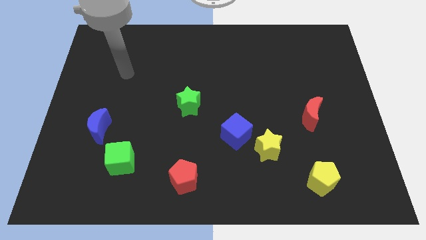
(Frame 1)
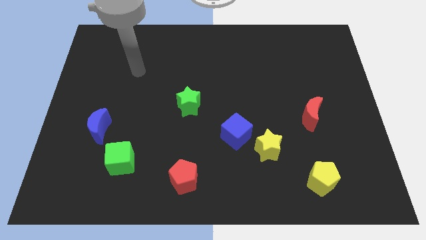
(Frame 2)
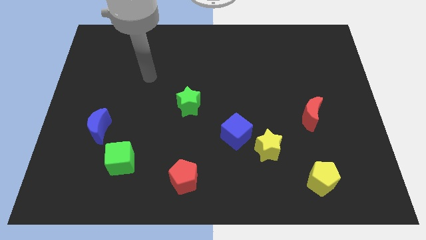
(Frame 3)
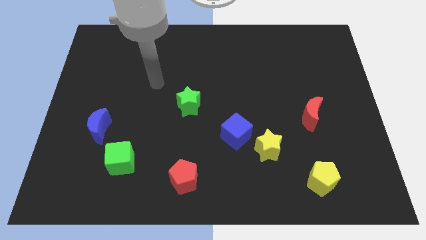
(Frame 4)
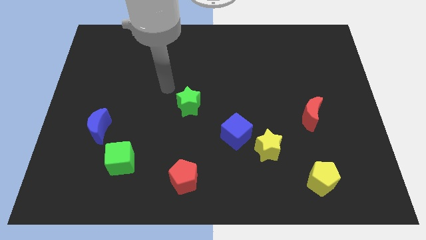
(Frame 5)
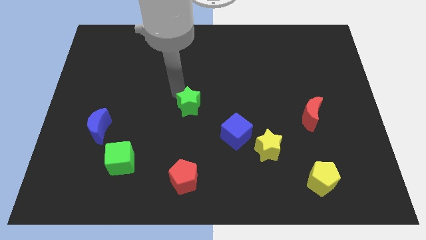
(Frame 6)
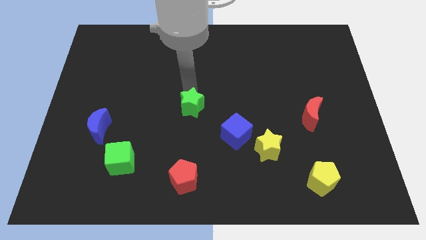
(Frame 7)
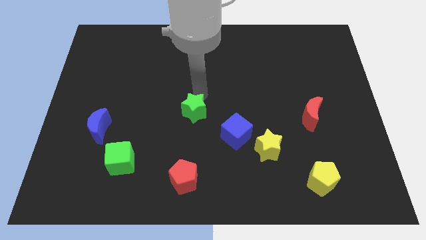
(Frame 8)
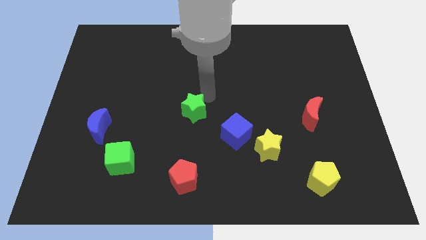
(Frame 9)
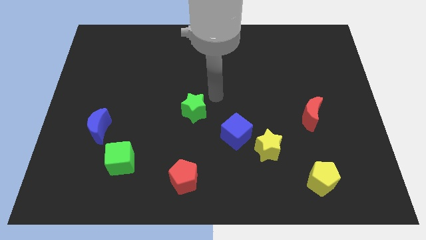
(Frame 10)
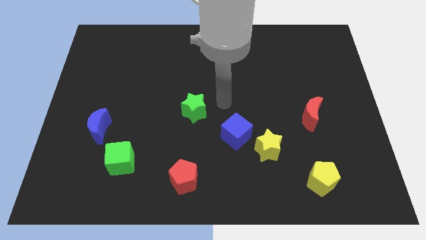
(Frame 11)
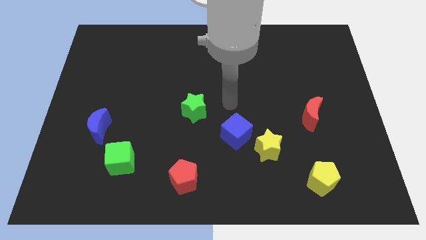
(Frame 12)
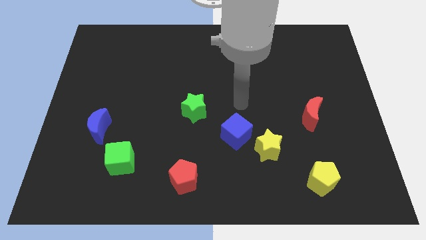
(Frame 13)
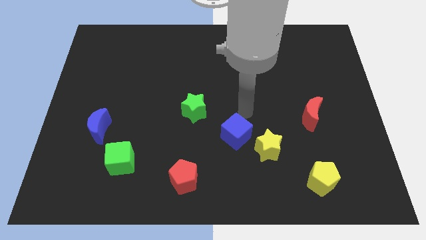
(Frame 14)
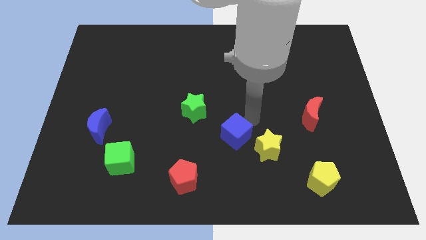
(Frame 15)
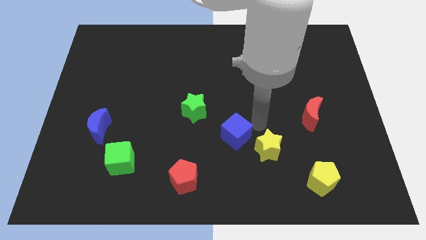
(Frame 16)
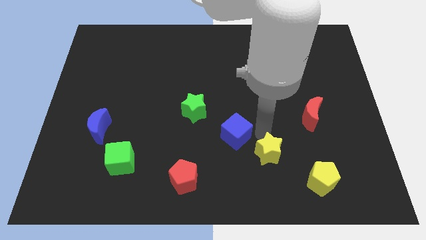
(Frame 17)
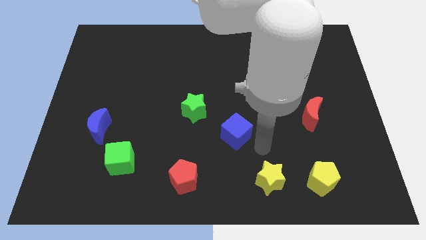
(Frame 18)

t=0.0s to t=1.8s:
pull the blue cube apart from the yellow star

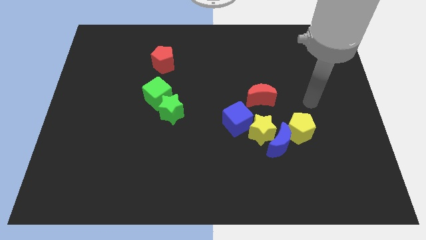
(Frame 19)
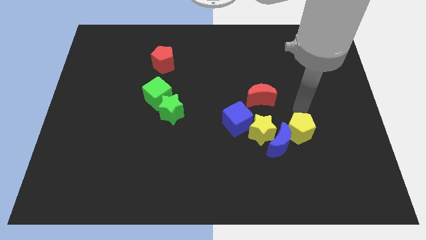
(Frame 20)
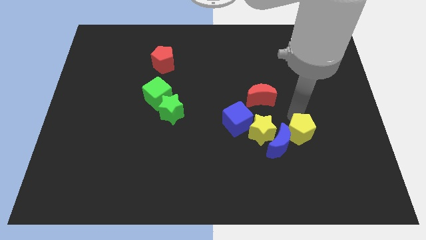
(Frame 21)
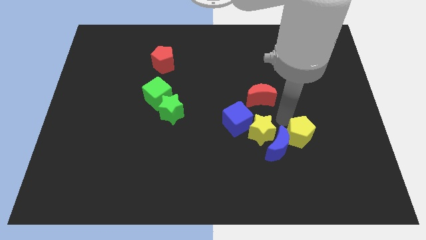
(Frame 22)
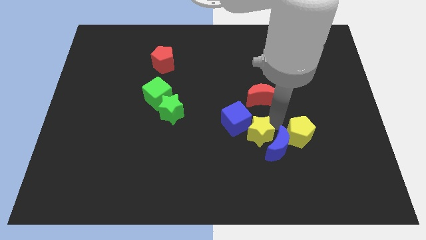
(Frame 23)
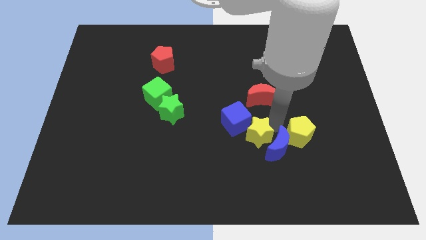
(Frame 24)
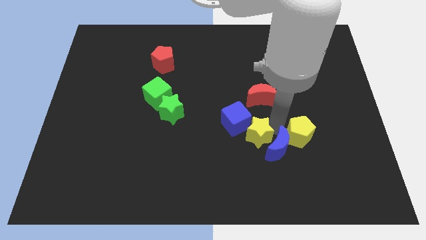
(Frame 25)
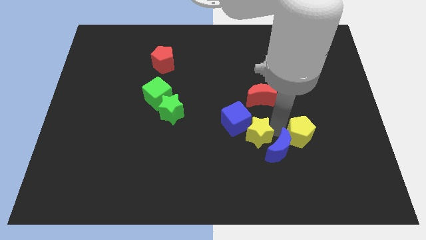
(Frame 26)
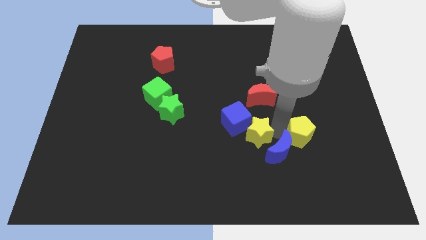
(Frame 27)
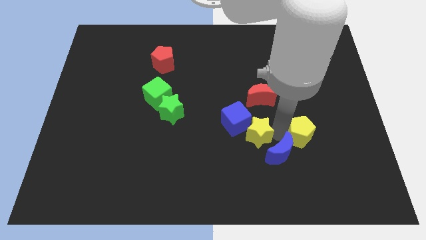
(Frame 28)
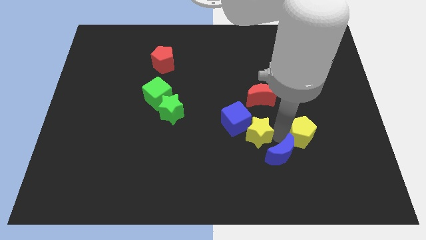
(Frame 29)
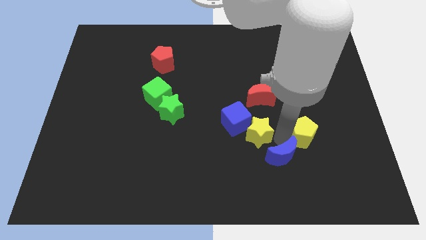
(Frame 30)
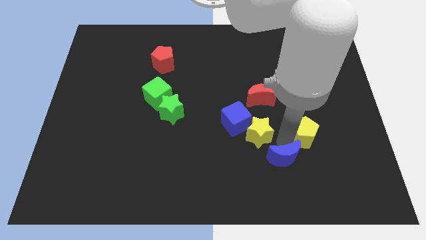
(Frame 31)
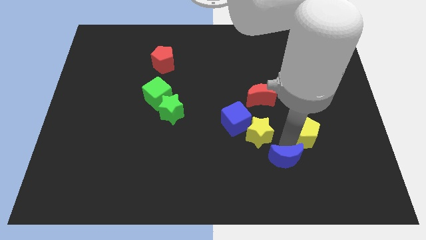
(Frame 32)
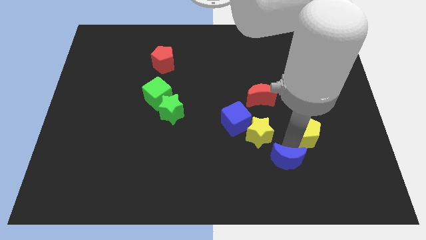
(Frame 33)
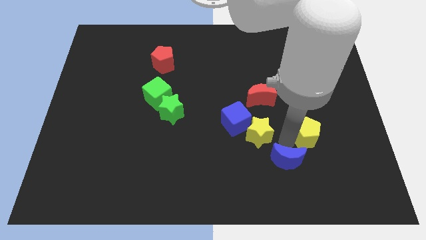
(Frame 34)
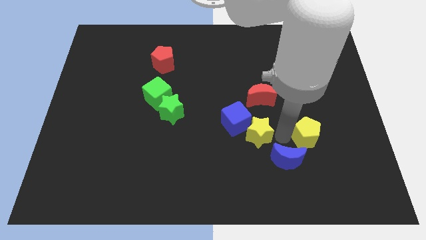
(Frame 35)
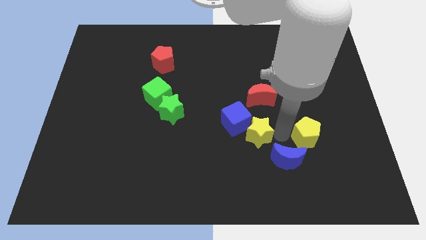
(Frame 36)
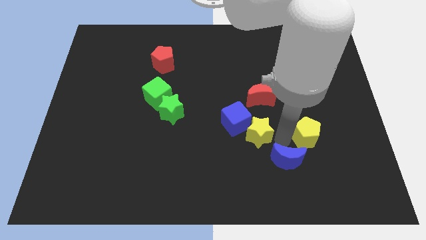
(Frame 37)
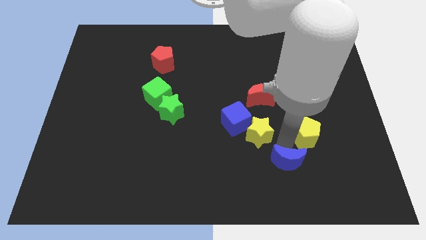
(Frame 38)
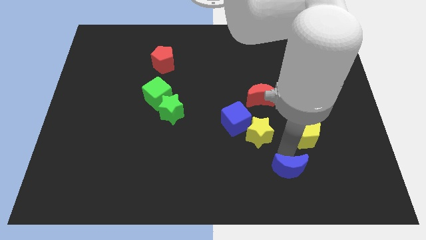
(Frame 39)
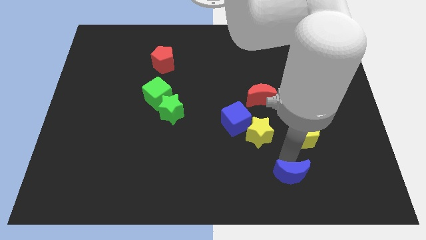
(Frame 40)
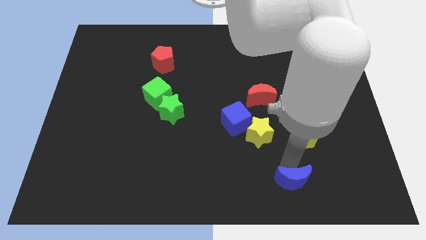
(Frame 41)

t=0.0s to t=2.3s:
separate the blue moon from the yellow star and yellow pentagon

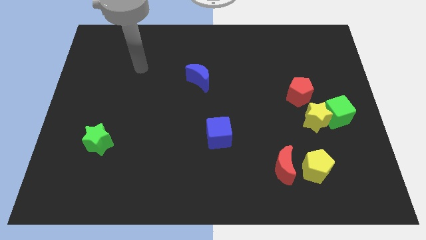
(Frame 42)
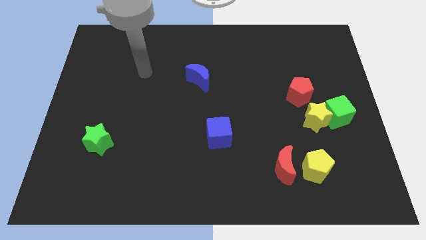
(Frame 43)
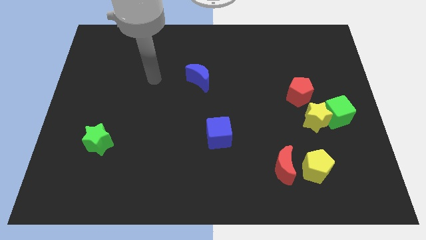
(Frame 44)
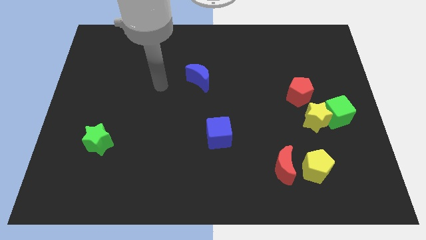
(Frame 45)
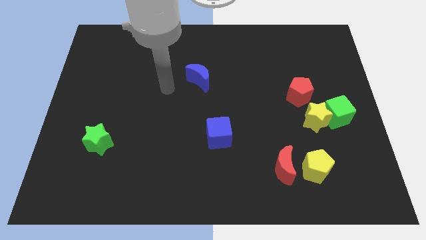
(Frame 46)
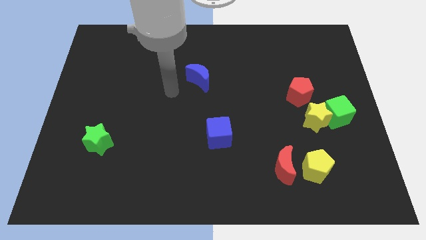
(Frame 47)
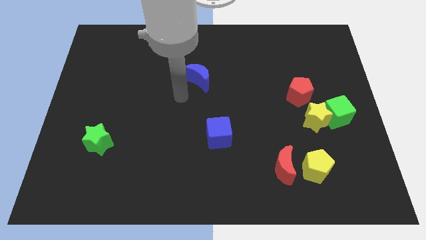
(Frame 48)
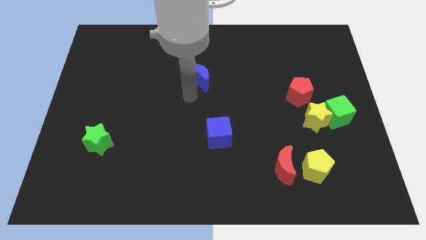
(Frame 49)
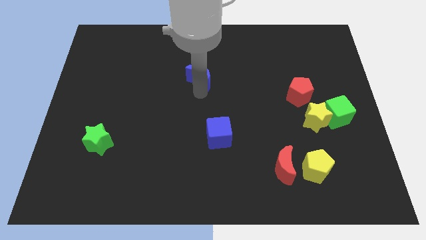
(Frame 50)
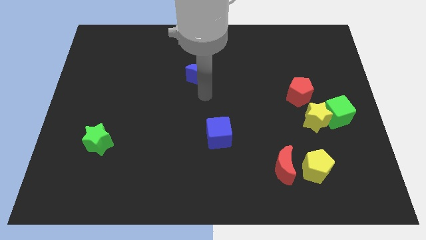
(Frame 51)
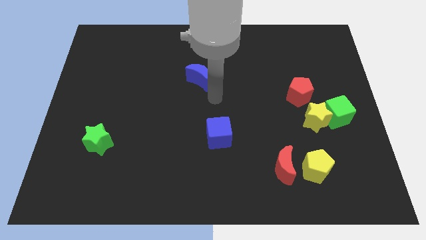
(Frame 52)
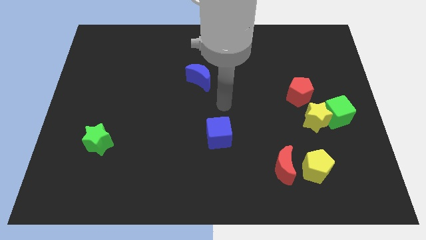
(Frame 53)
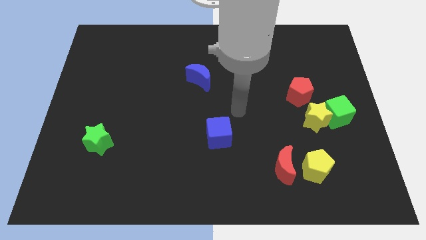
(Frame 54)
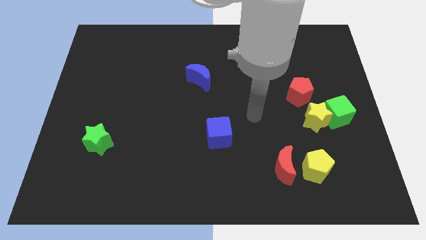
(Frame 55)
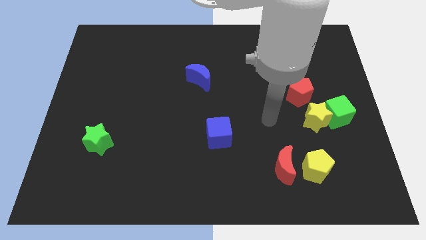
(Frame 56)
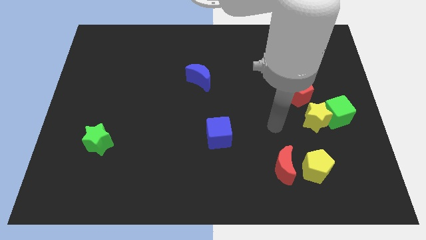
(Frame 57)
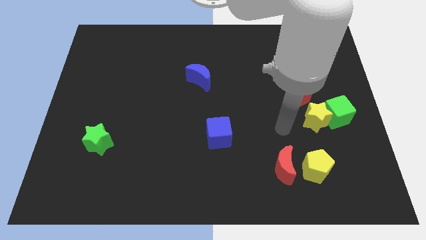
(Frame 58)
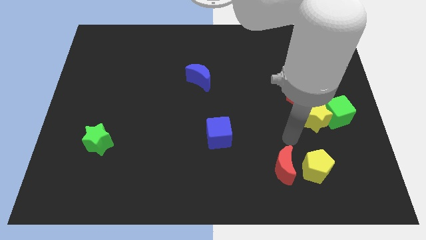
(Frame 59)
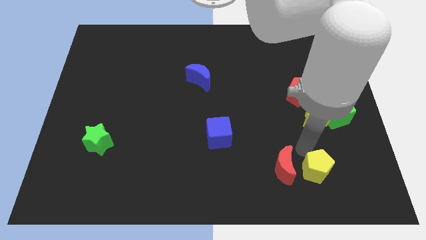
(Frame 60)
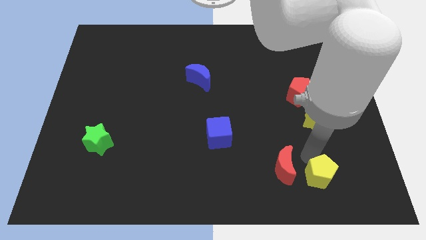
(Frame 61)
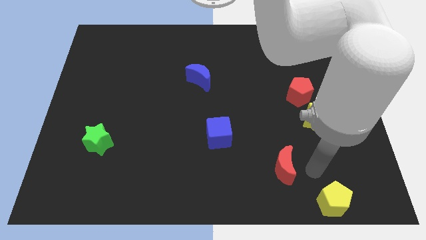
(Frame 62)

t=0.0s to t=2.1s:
move the red moon away from the yellow pentagon

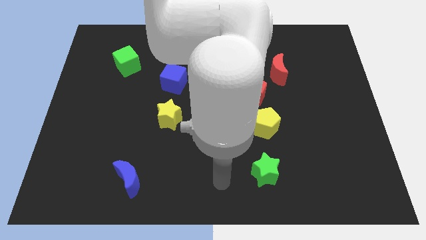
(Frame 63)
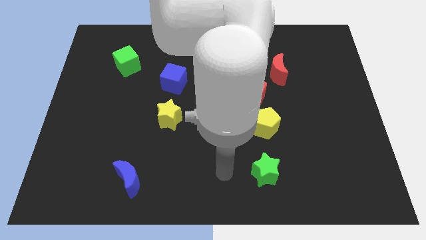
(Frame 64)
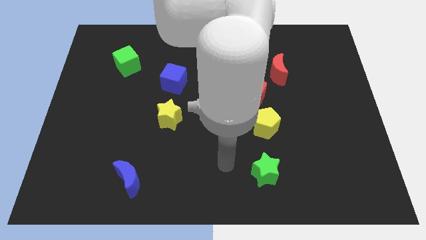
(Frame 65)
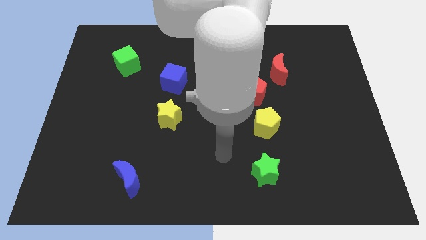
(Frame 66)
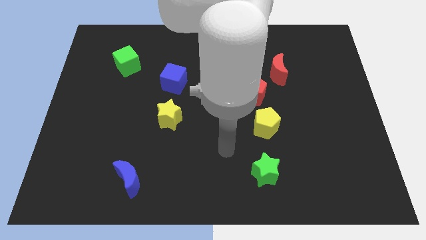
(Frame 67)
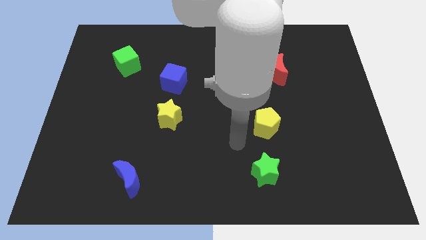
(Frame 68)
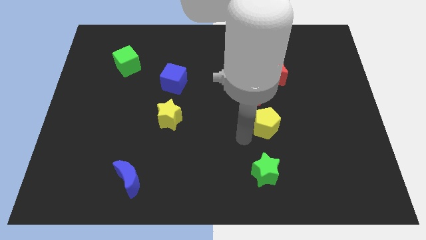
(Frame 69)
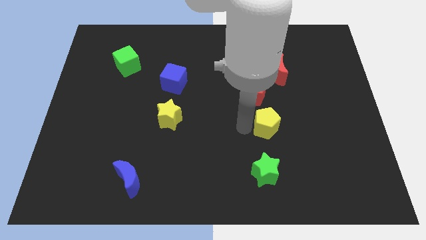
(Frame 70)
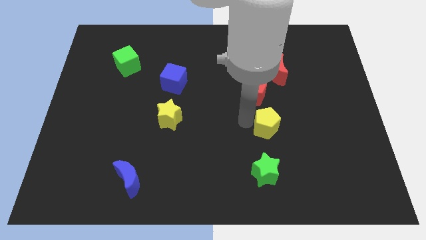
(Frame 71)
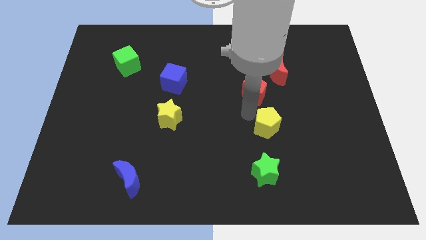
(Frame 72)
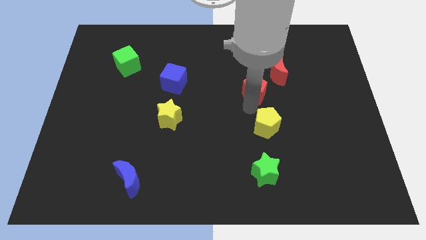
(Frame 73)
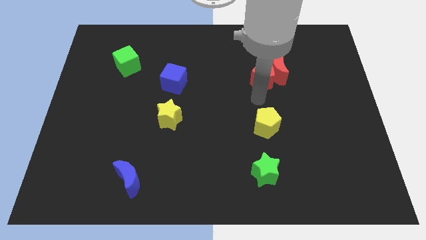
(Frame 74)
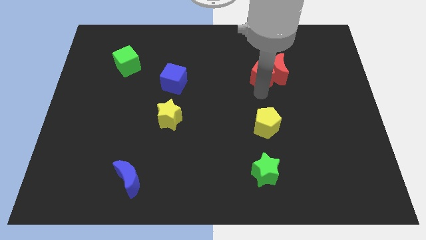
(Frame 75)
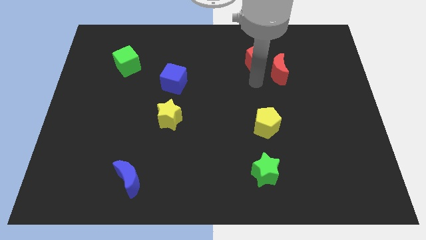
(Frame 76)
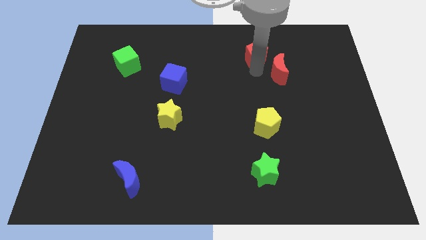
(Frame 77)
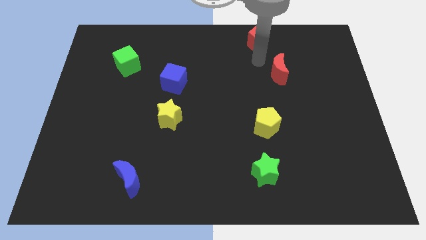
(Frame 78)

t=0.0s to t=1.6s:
move the red moon away from the red pentagon

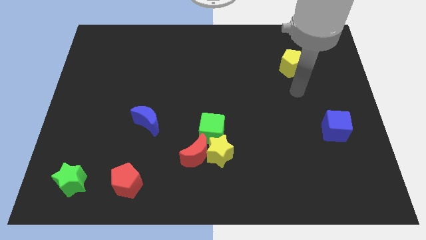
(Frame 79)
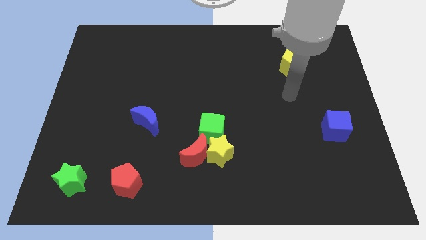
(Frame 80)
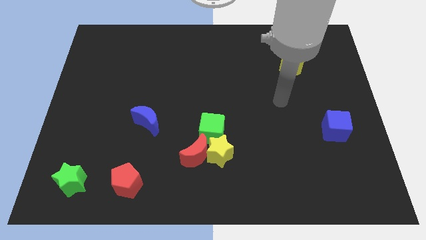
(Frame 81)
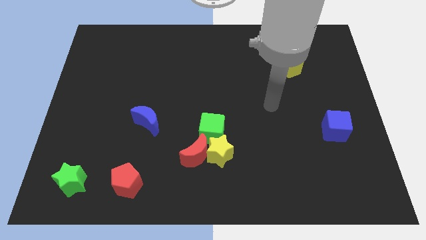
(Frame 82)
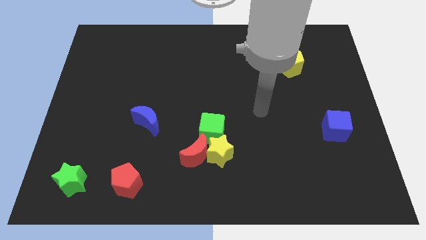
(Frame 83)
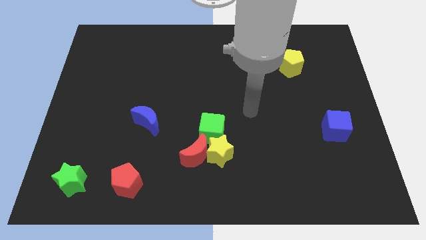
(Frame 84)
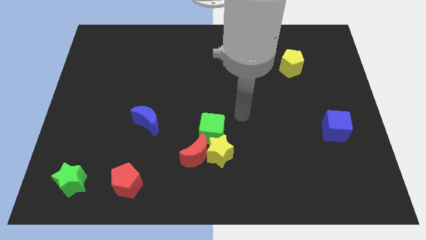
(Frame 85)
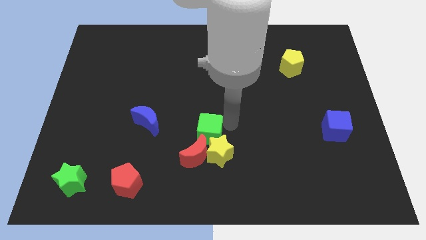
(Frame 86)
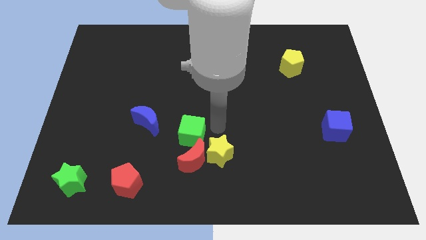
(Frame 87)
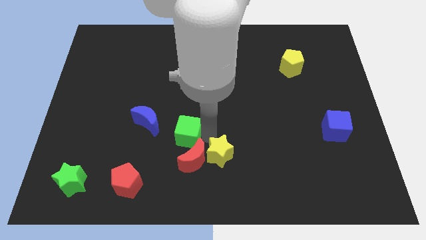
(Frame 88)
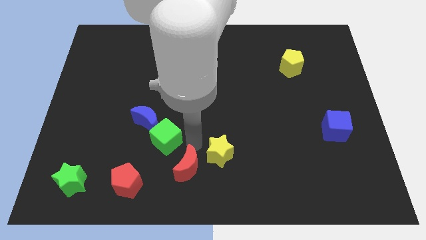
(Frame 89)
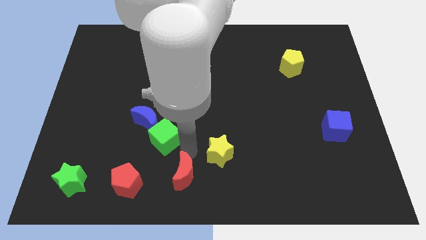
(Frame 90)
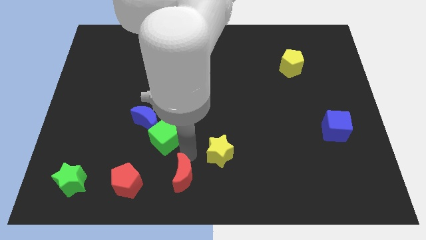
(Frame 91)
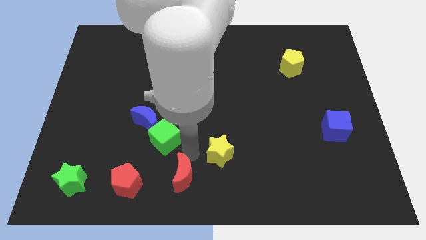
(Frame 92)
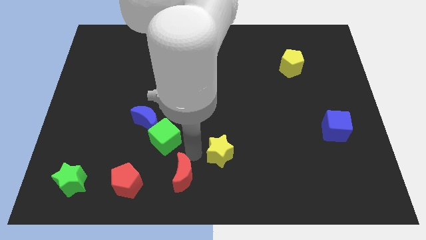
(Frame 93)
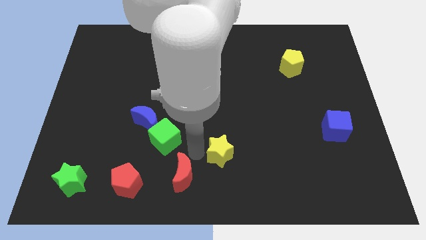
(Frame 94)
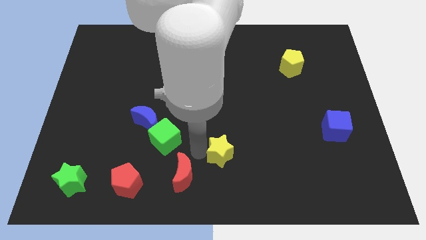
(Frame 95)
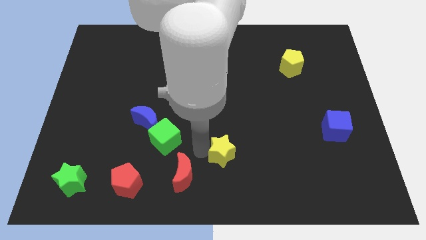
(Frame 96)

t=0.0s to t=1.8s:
pull the yellow star apart from the red moon and green cube
